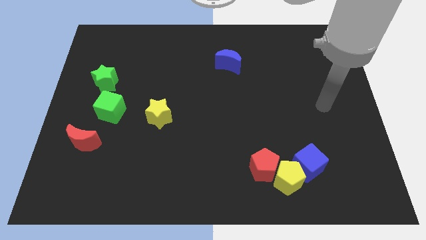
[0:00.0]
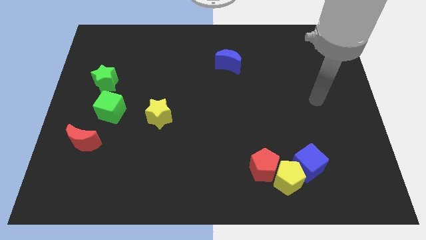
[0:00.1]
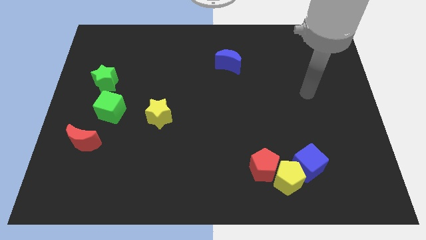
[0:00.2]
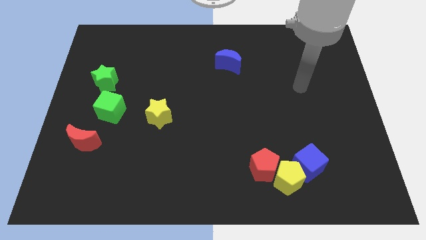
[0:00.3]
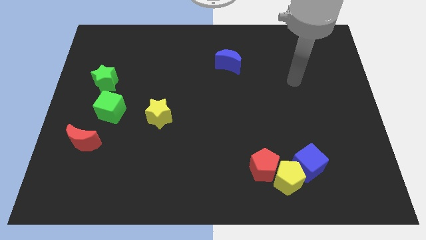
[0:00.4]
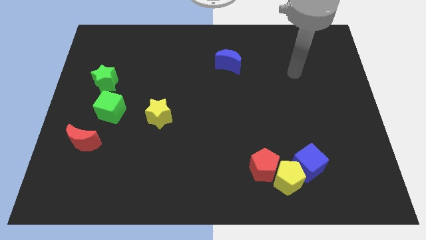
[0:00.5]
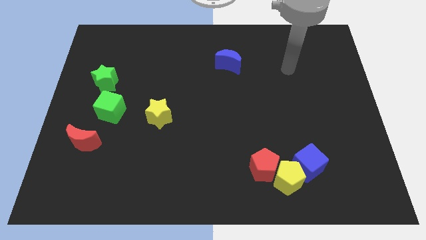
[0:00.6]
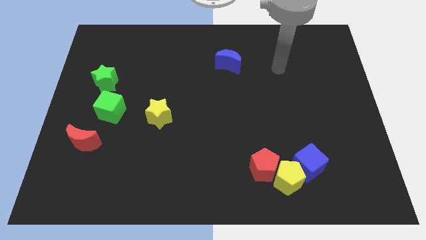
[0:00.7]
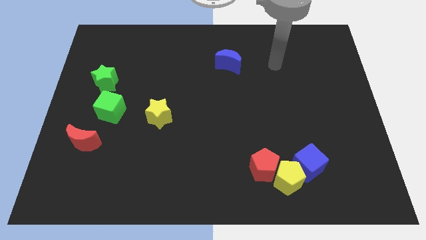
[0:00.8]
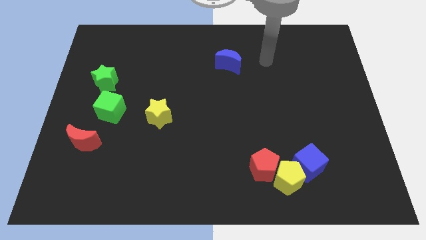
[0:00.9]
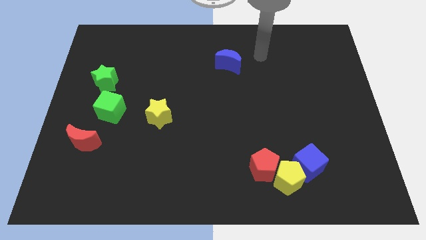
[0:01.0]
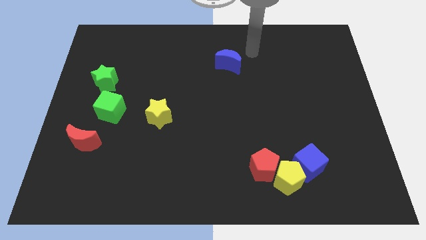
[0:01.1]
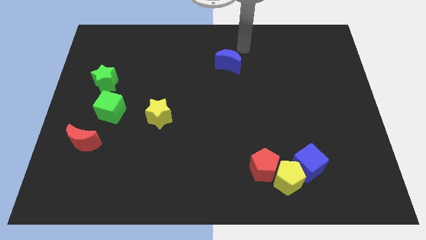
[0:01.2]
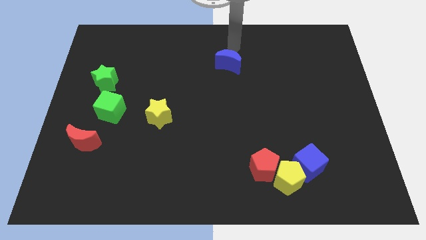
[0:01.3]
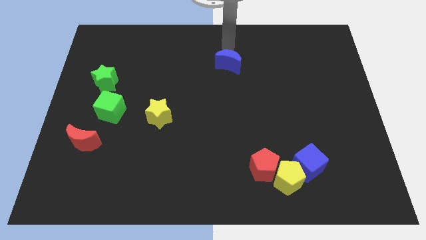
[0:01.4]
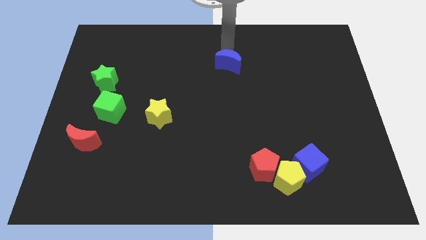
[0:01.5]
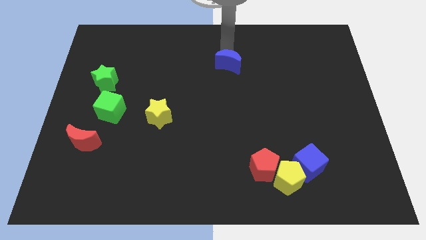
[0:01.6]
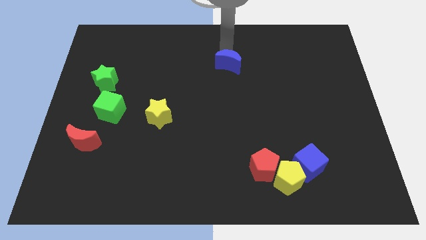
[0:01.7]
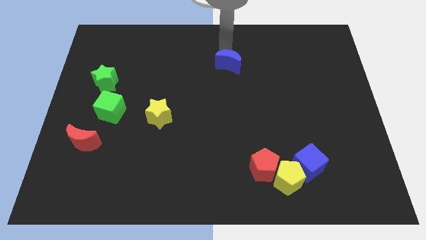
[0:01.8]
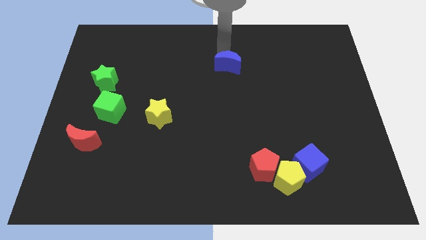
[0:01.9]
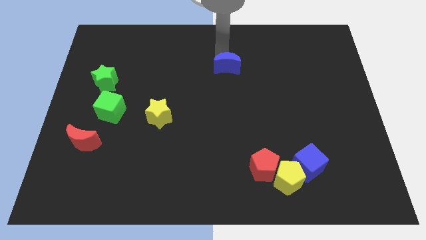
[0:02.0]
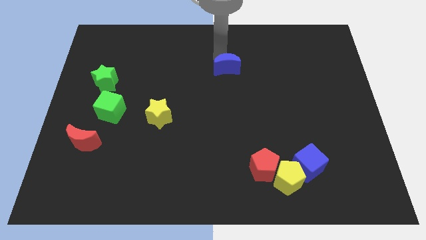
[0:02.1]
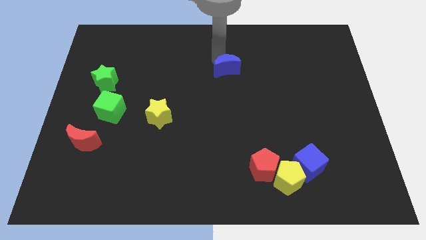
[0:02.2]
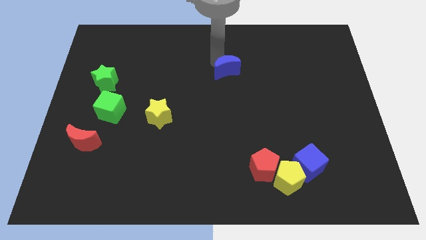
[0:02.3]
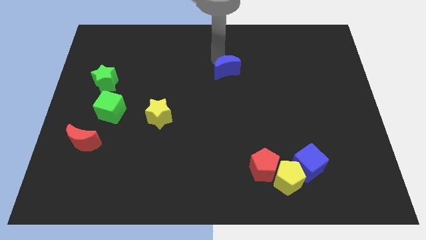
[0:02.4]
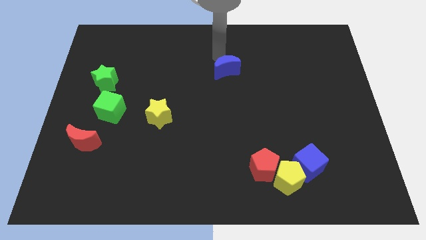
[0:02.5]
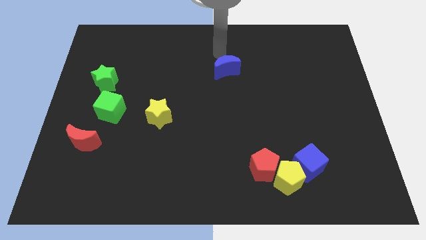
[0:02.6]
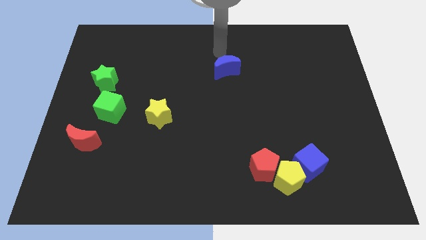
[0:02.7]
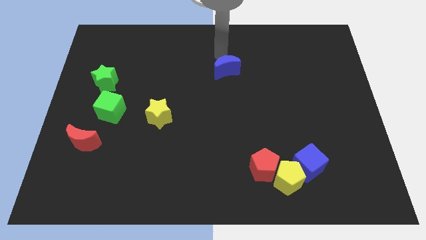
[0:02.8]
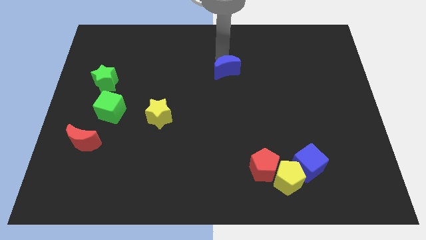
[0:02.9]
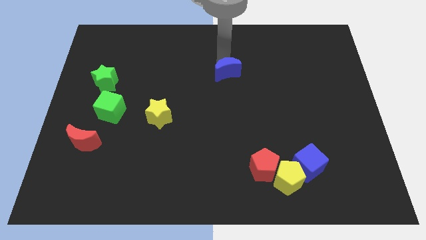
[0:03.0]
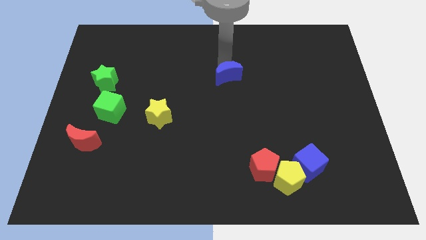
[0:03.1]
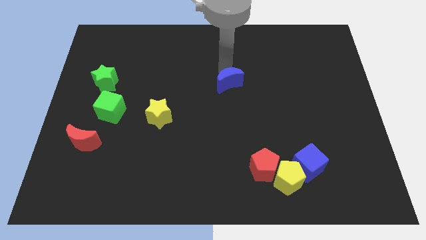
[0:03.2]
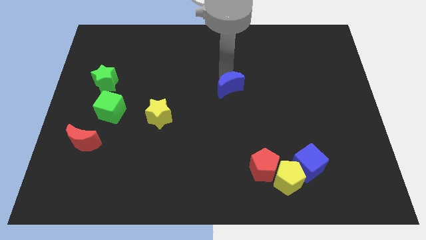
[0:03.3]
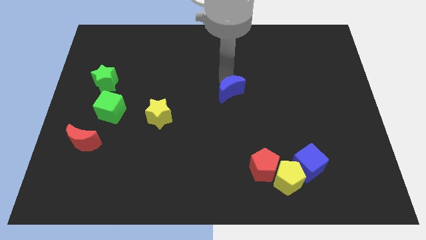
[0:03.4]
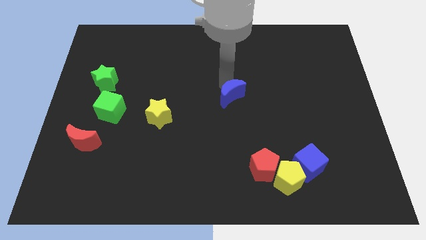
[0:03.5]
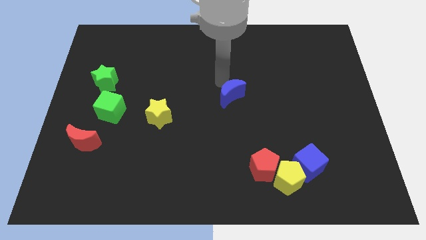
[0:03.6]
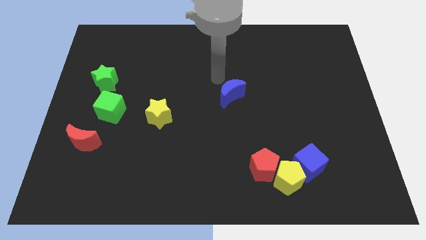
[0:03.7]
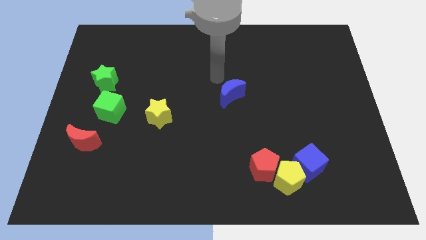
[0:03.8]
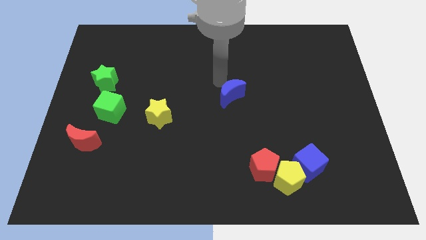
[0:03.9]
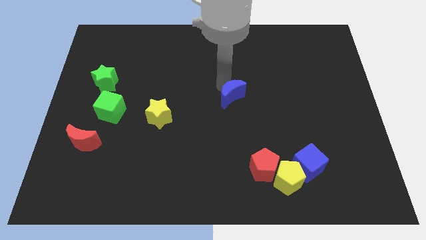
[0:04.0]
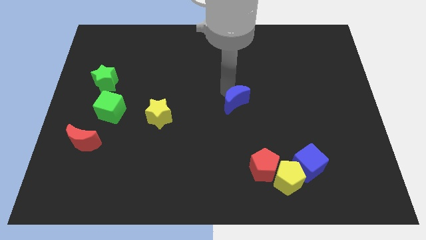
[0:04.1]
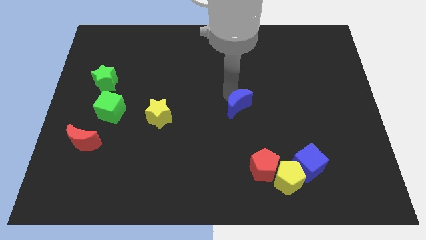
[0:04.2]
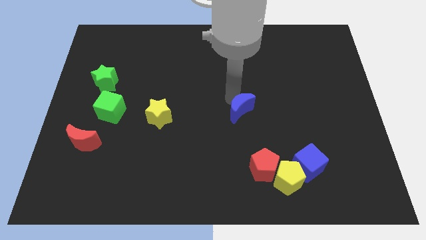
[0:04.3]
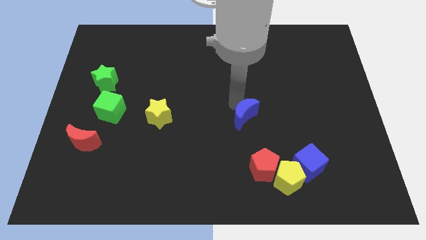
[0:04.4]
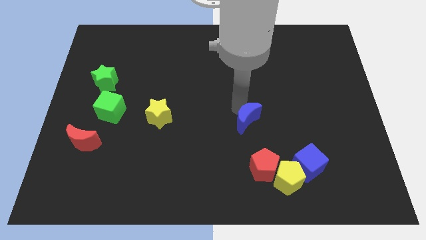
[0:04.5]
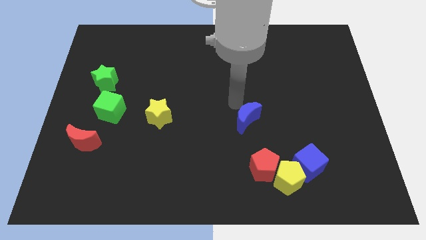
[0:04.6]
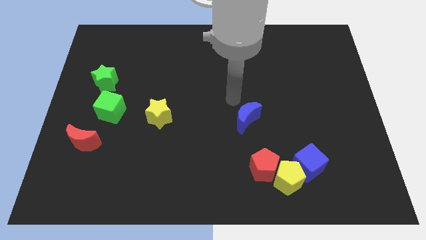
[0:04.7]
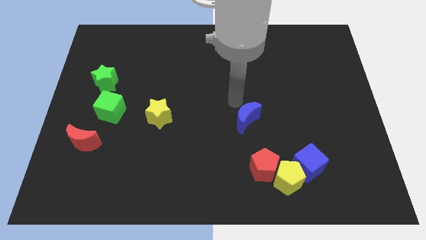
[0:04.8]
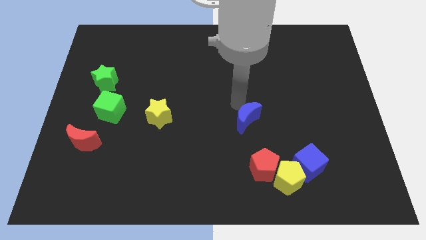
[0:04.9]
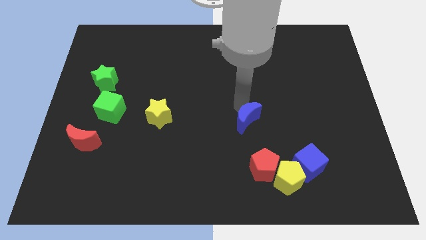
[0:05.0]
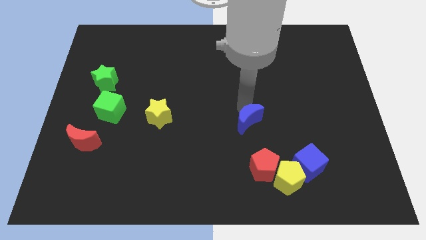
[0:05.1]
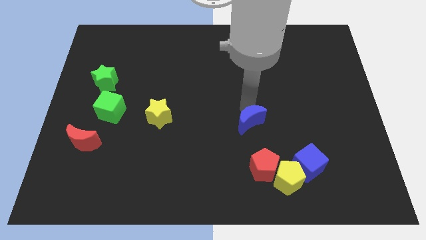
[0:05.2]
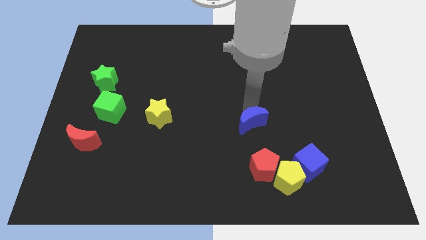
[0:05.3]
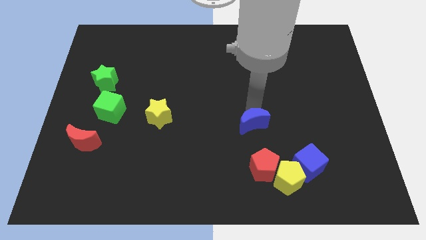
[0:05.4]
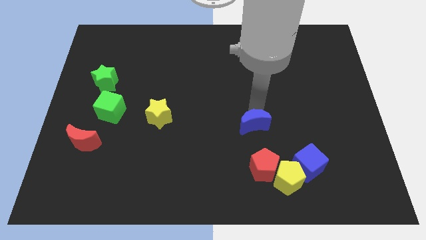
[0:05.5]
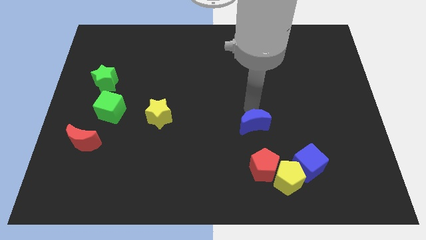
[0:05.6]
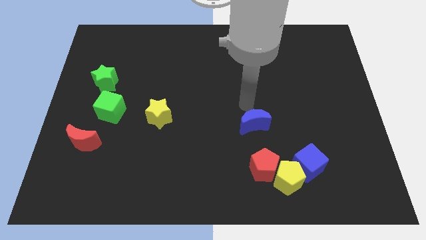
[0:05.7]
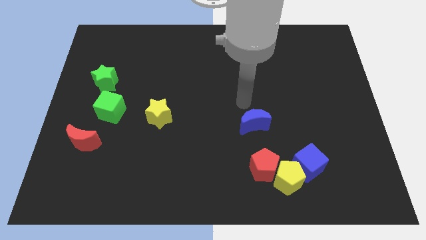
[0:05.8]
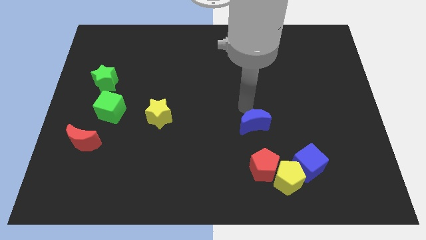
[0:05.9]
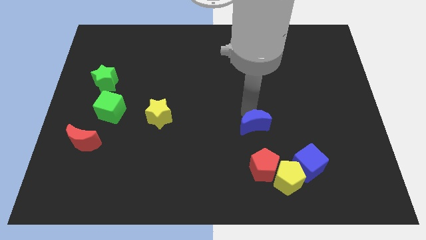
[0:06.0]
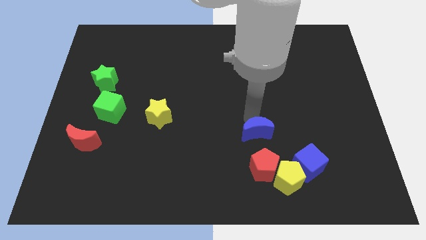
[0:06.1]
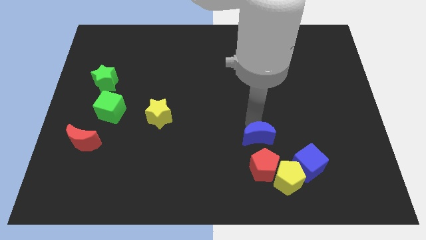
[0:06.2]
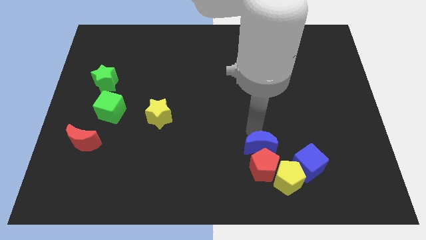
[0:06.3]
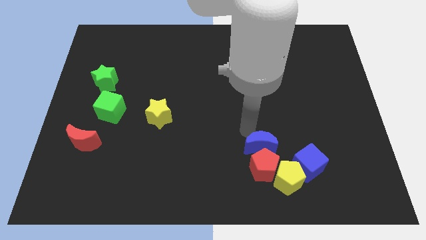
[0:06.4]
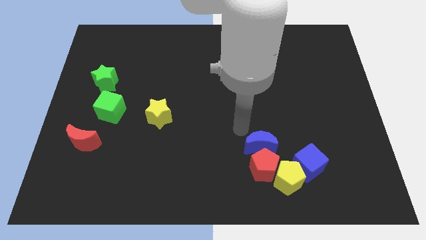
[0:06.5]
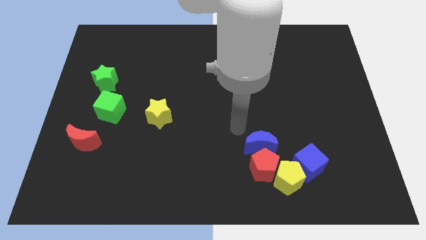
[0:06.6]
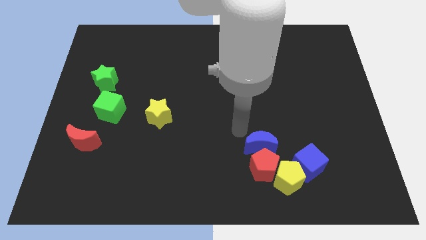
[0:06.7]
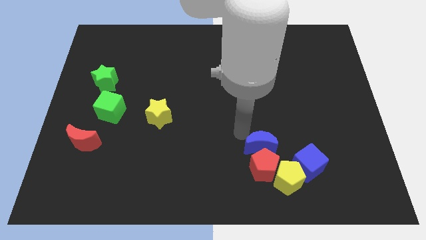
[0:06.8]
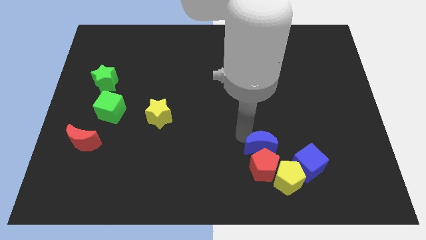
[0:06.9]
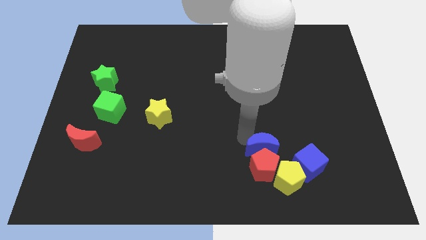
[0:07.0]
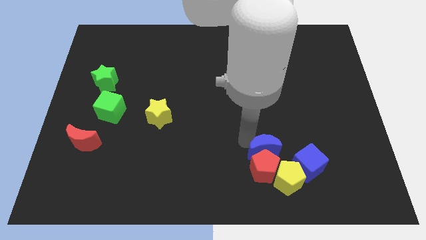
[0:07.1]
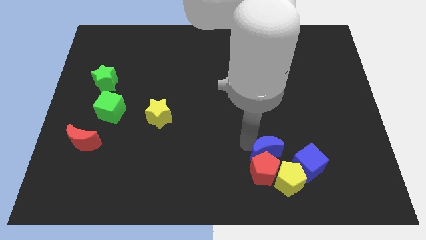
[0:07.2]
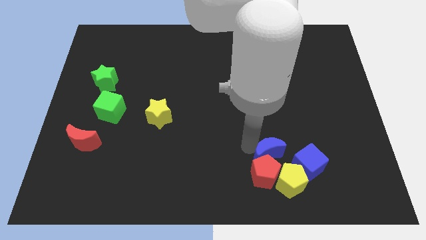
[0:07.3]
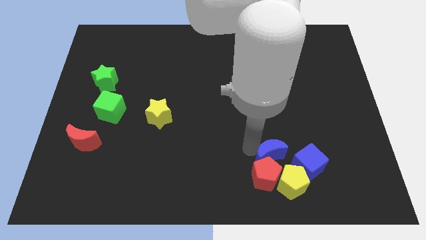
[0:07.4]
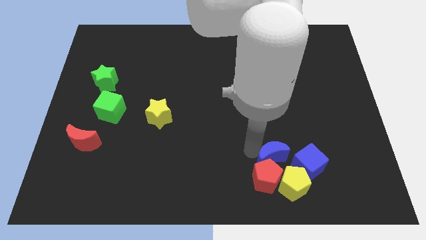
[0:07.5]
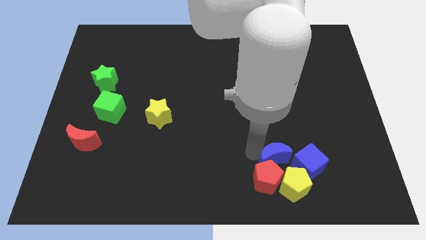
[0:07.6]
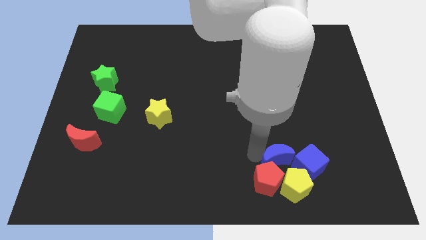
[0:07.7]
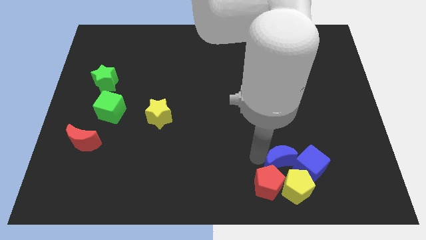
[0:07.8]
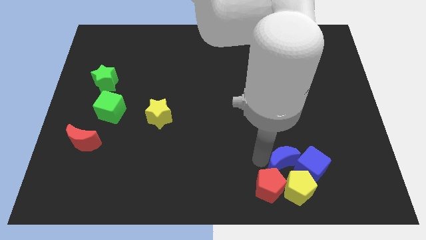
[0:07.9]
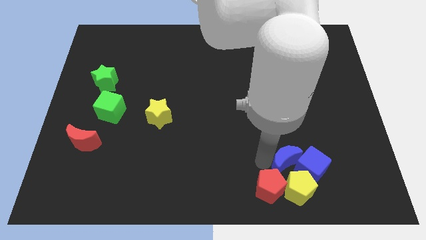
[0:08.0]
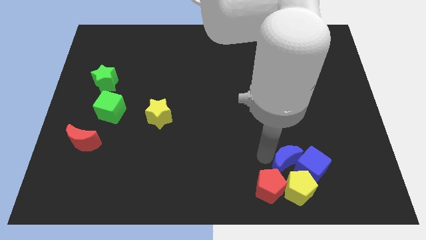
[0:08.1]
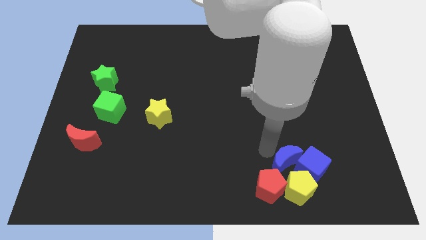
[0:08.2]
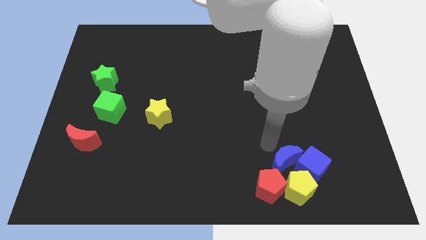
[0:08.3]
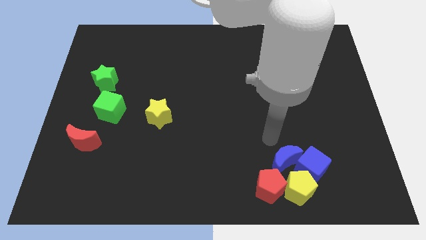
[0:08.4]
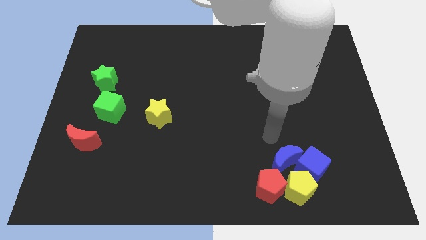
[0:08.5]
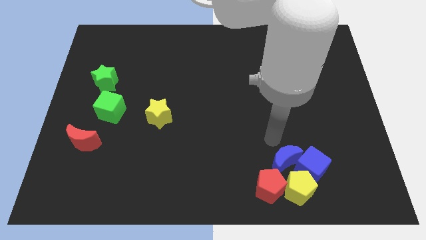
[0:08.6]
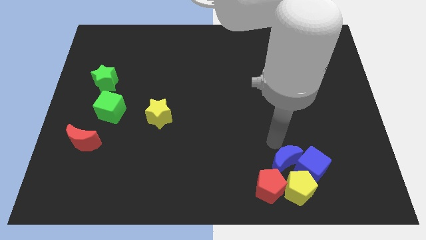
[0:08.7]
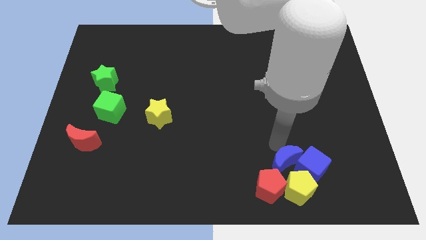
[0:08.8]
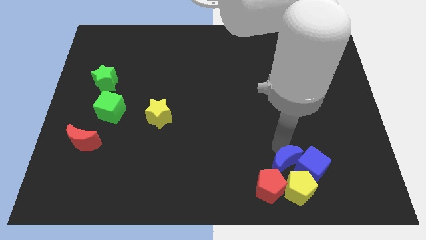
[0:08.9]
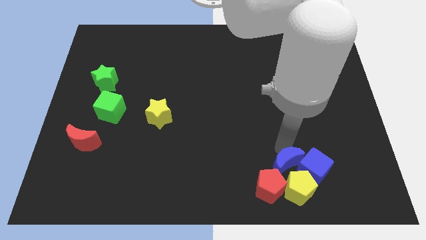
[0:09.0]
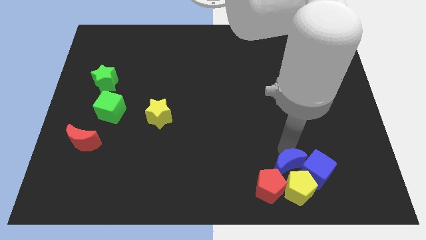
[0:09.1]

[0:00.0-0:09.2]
slide the blue moon towards the yellow pentagon
